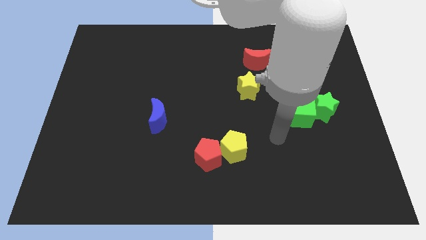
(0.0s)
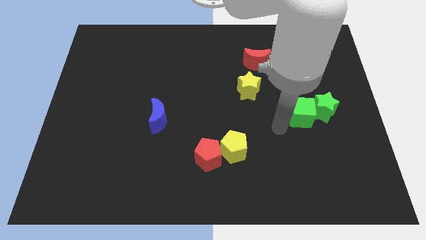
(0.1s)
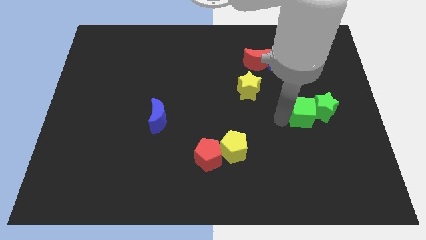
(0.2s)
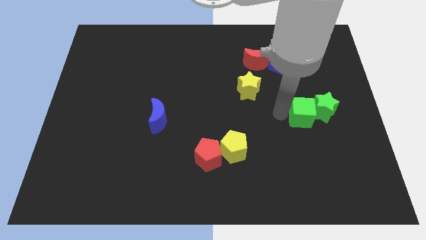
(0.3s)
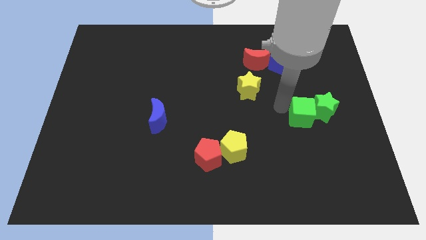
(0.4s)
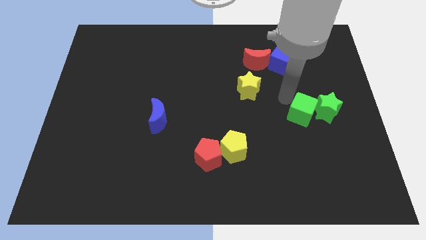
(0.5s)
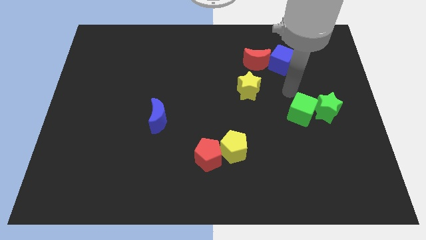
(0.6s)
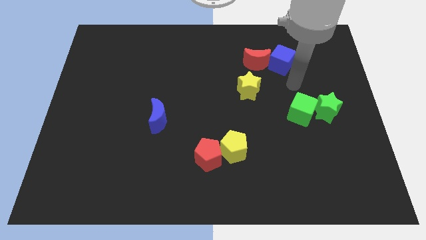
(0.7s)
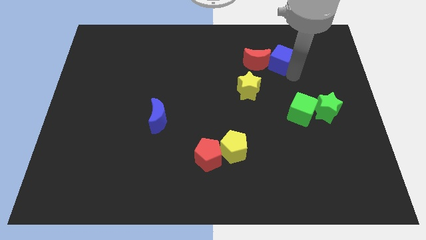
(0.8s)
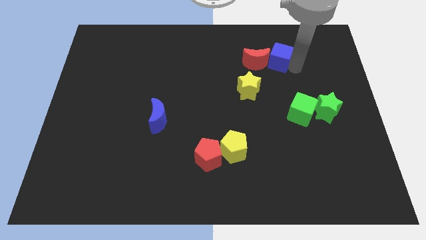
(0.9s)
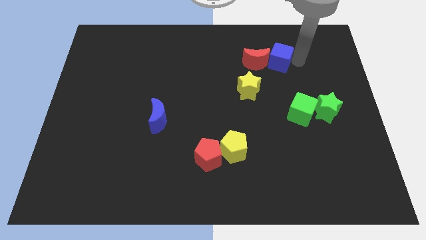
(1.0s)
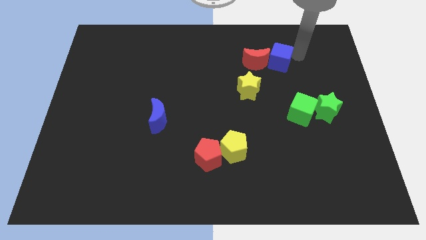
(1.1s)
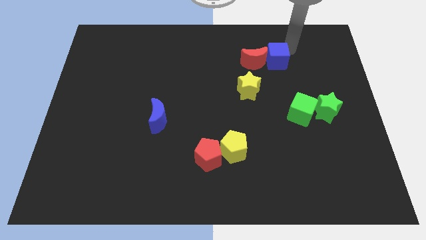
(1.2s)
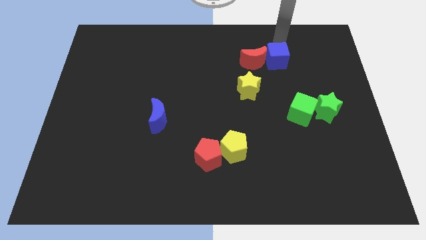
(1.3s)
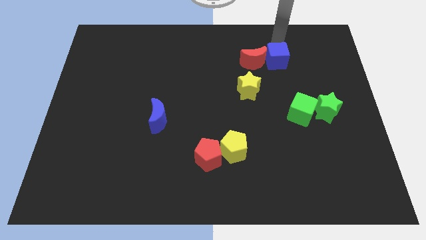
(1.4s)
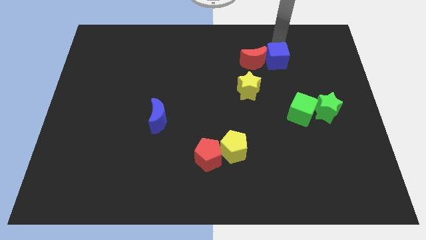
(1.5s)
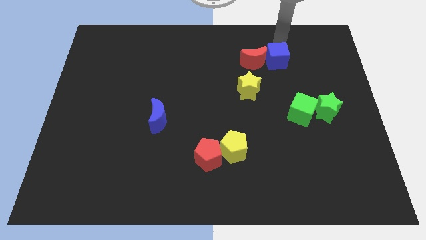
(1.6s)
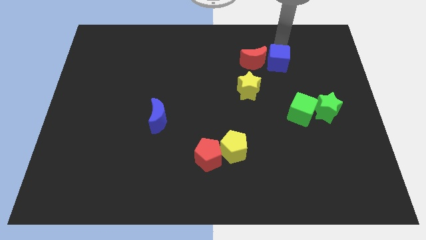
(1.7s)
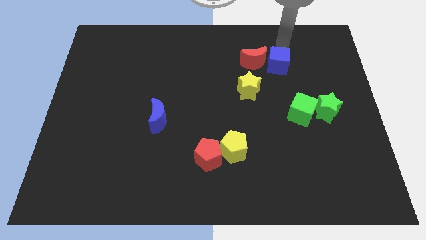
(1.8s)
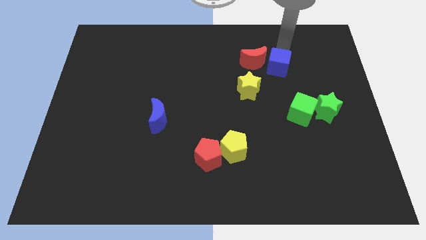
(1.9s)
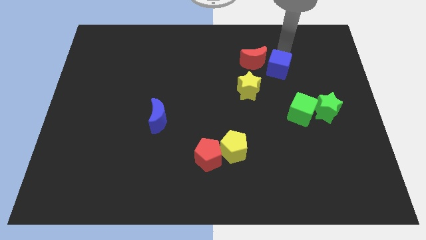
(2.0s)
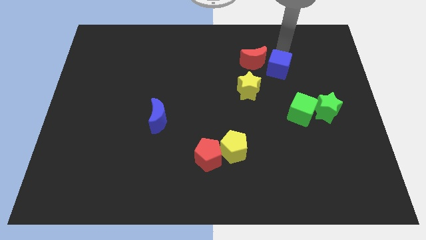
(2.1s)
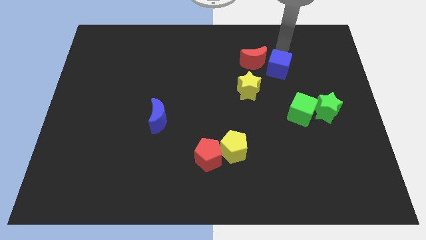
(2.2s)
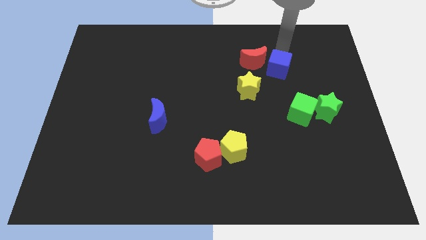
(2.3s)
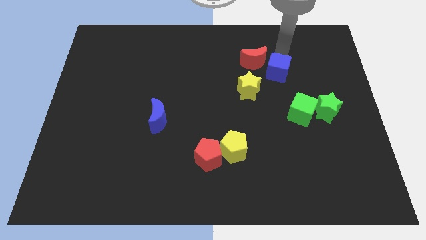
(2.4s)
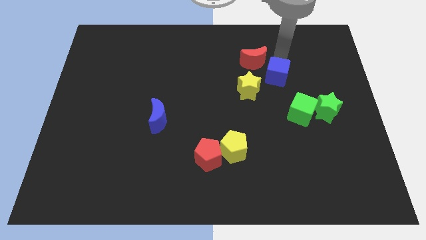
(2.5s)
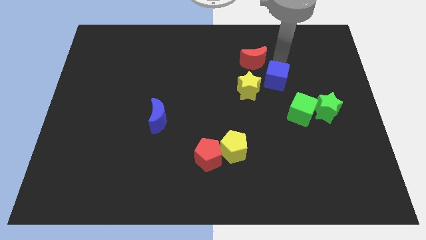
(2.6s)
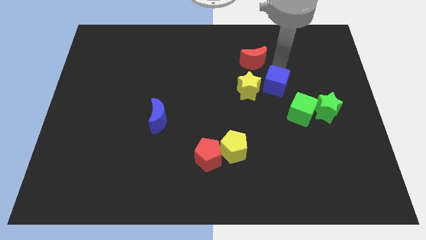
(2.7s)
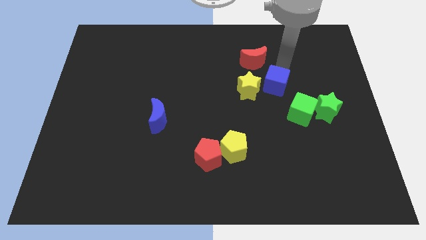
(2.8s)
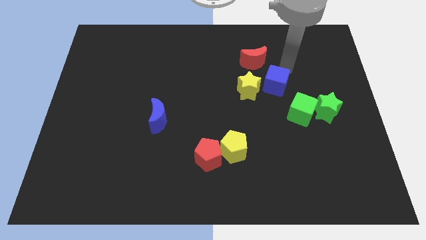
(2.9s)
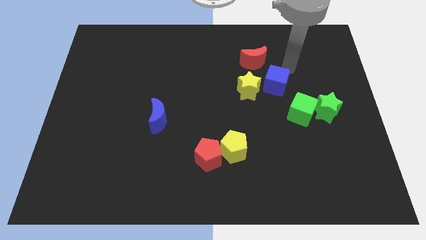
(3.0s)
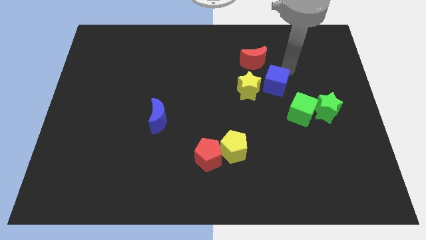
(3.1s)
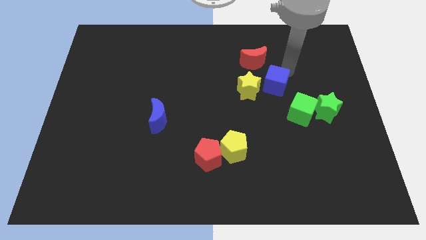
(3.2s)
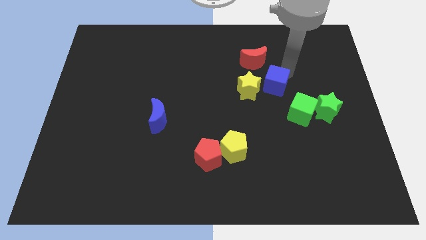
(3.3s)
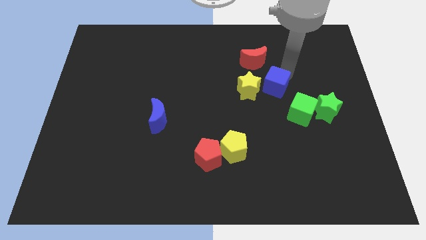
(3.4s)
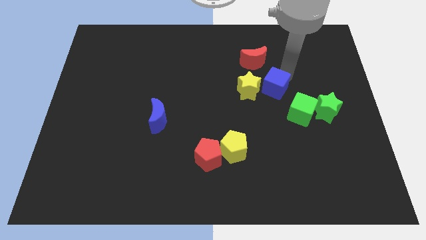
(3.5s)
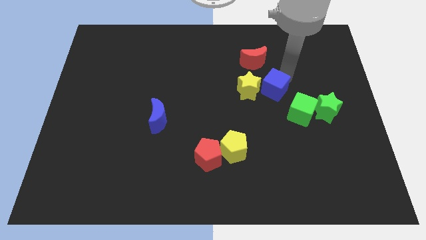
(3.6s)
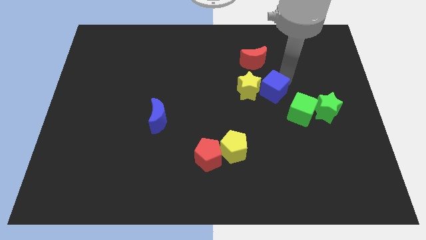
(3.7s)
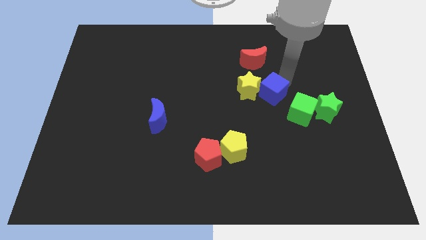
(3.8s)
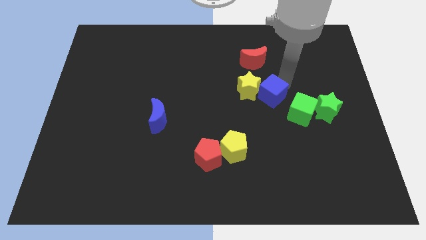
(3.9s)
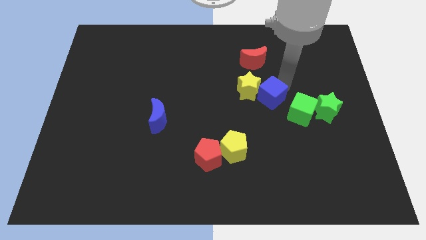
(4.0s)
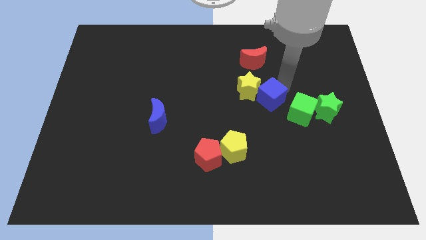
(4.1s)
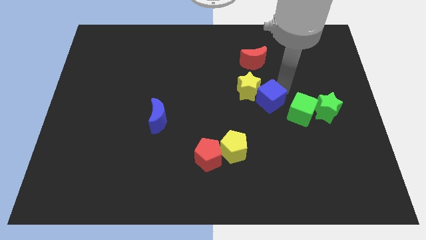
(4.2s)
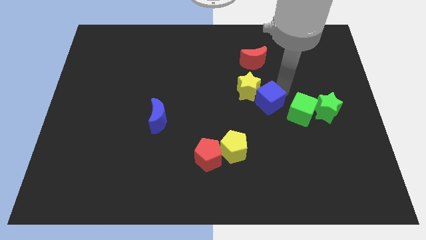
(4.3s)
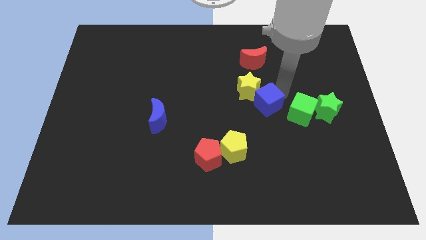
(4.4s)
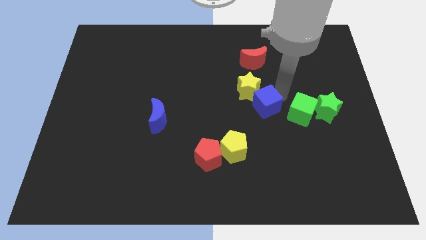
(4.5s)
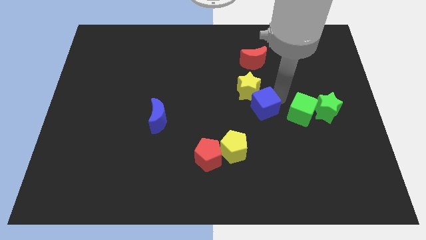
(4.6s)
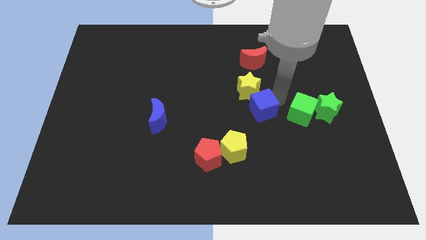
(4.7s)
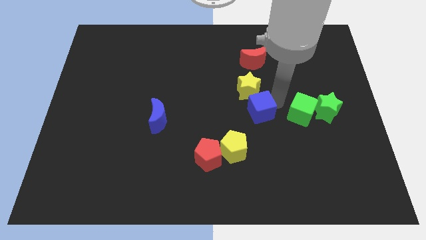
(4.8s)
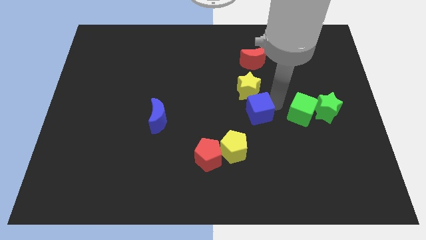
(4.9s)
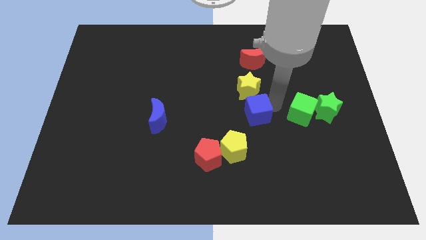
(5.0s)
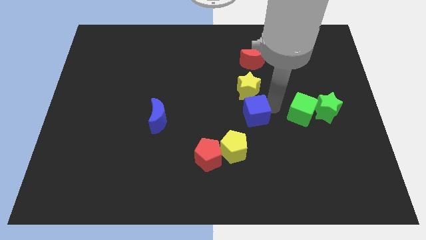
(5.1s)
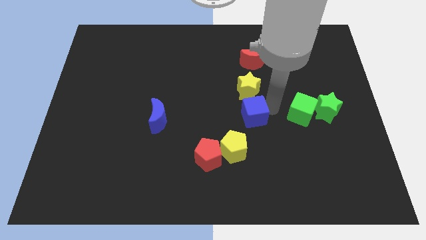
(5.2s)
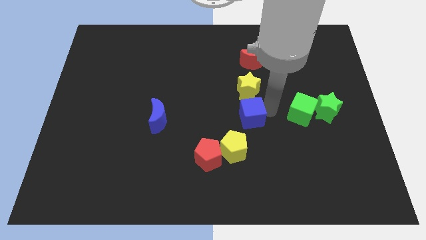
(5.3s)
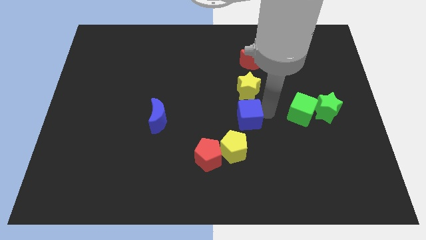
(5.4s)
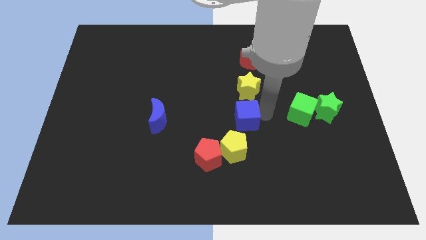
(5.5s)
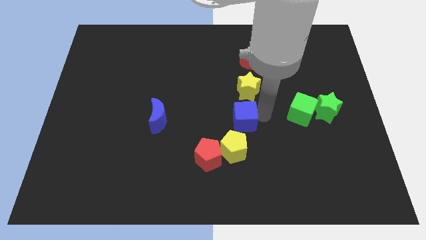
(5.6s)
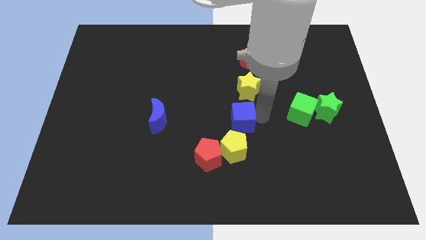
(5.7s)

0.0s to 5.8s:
slide the blue cube diagonally downwards and left

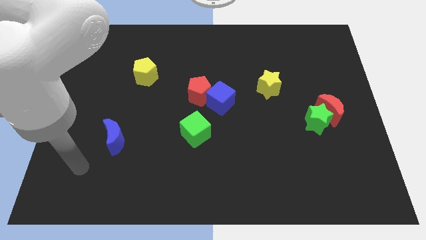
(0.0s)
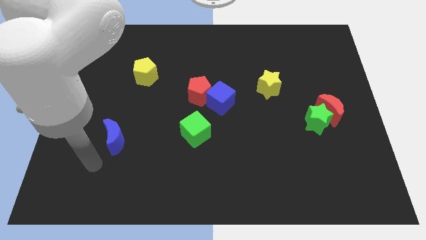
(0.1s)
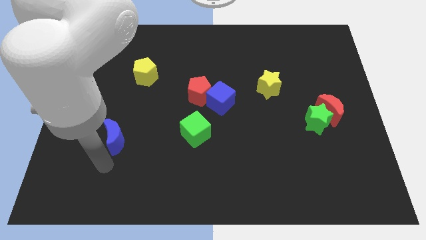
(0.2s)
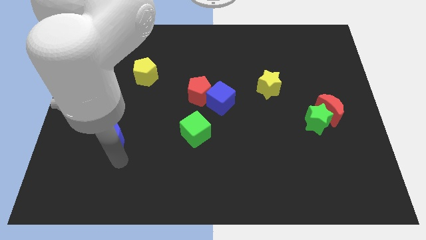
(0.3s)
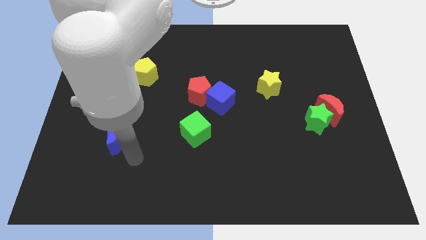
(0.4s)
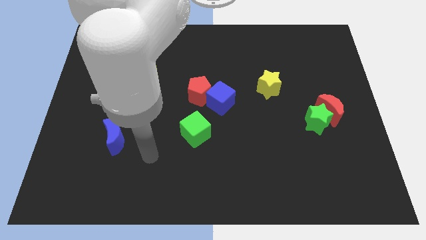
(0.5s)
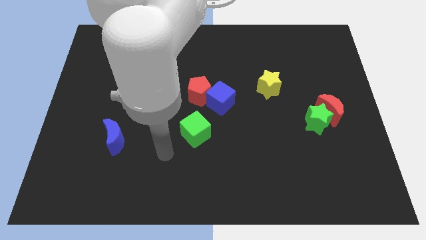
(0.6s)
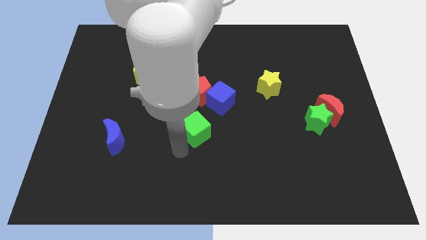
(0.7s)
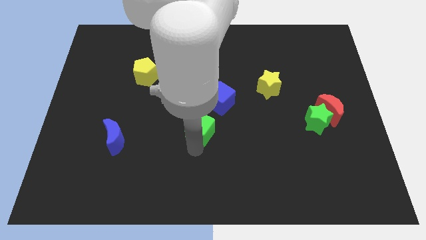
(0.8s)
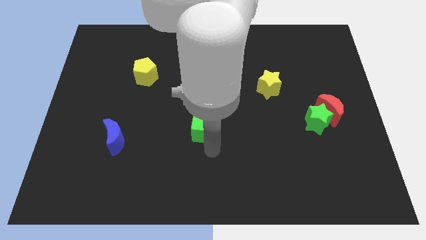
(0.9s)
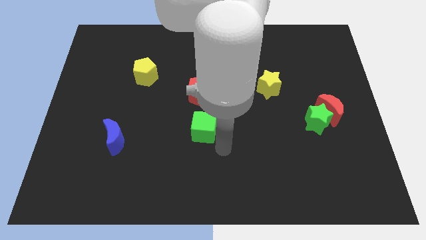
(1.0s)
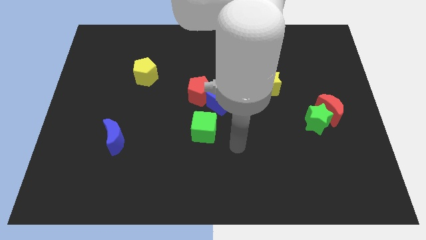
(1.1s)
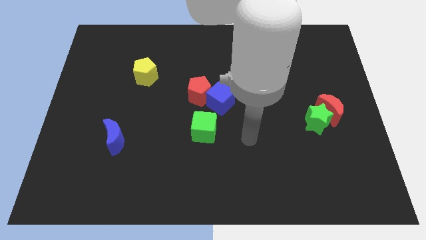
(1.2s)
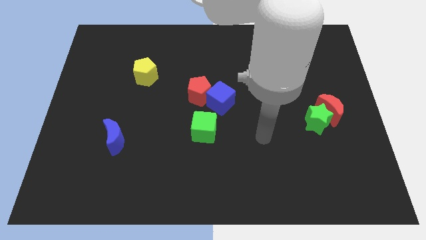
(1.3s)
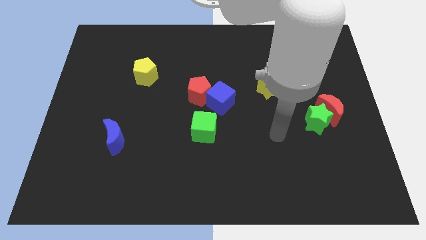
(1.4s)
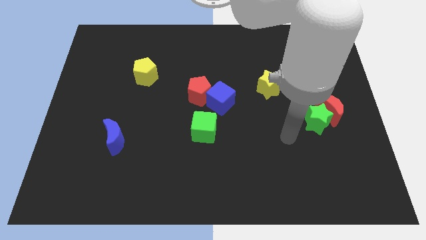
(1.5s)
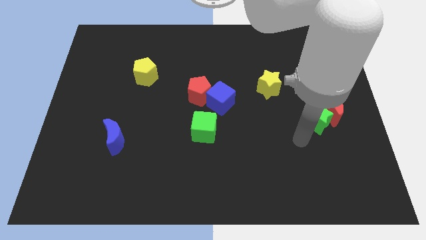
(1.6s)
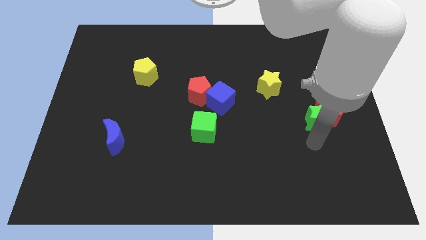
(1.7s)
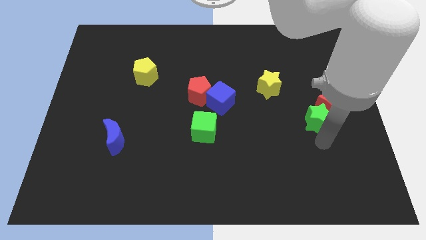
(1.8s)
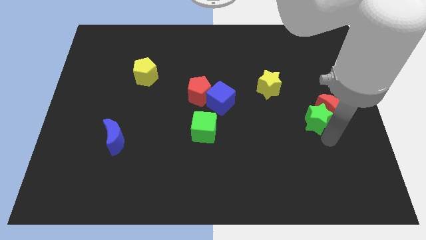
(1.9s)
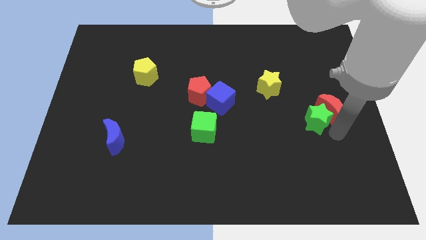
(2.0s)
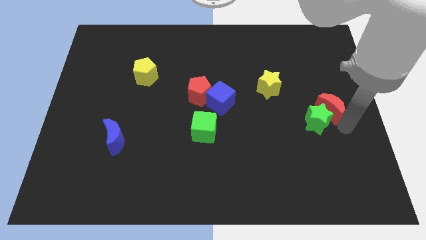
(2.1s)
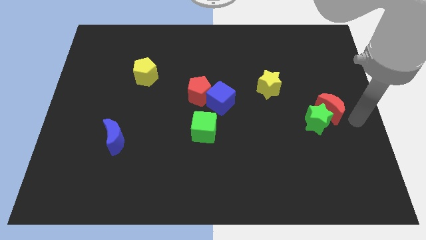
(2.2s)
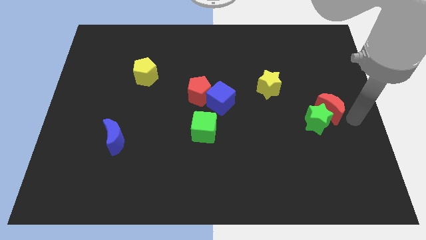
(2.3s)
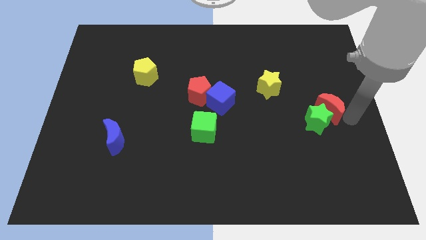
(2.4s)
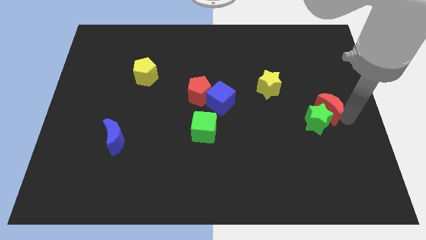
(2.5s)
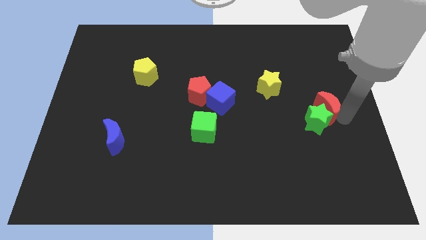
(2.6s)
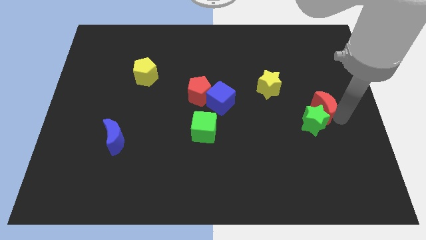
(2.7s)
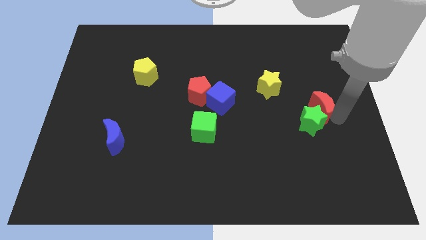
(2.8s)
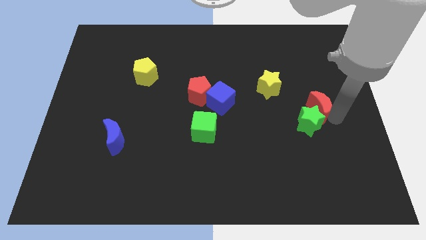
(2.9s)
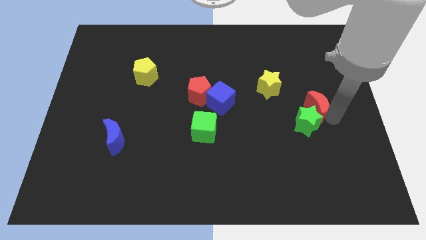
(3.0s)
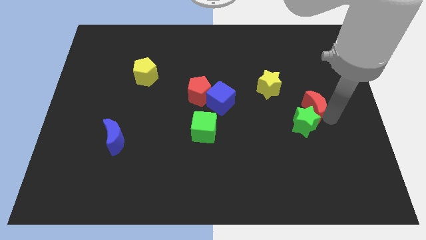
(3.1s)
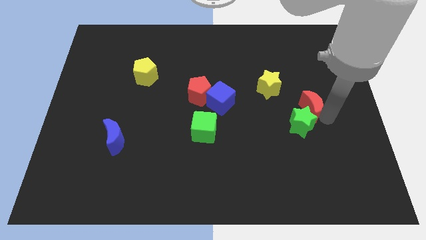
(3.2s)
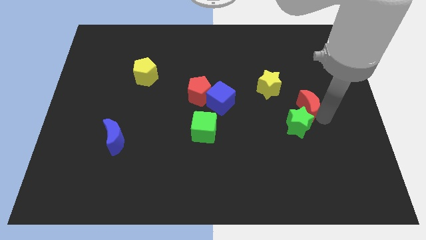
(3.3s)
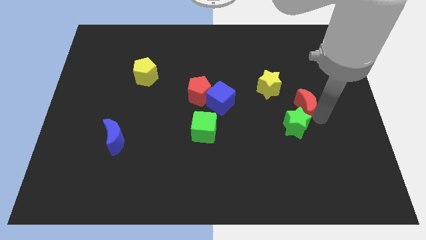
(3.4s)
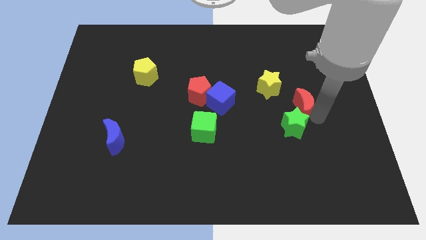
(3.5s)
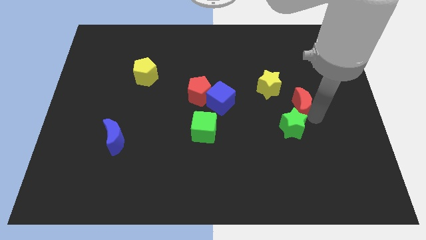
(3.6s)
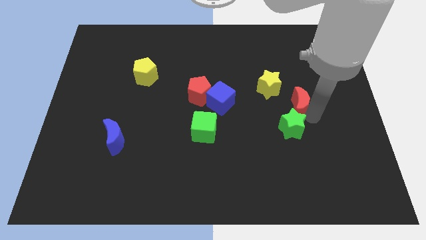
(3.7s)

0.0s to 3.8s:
slightly move the red moon to the left
